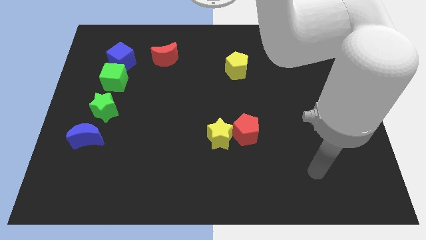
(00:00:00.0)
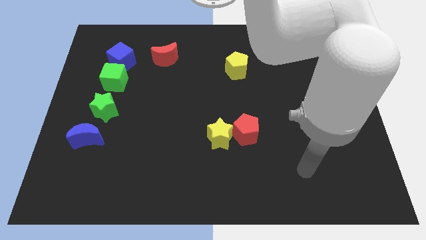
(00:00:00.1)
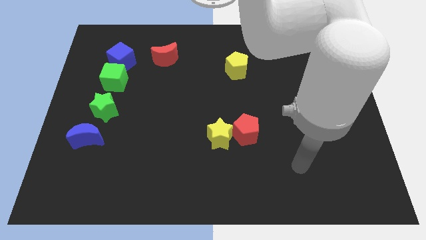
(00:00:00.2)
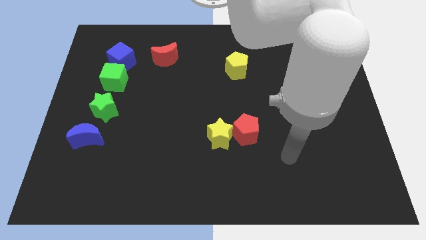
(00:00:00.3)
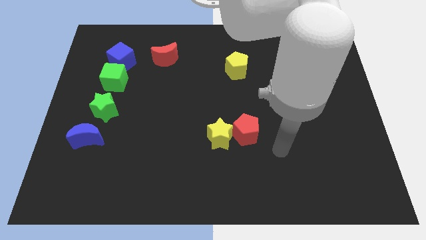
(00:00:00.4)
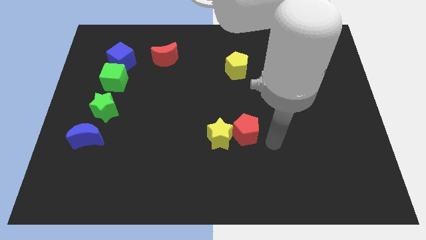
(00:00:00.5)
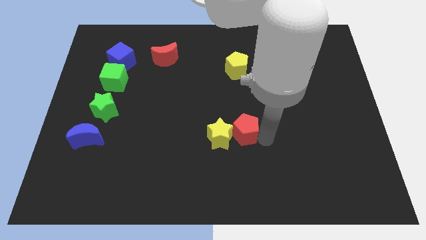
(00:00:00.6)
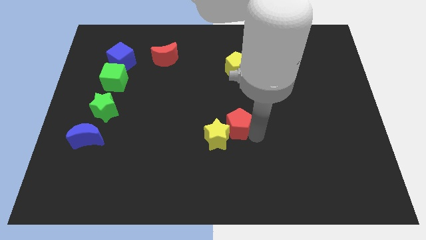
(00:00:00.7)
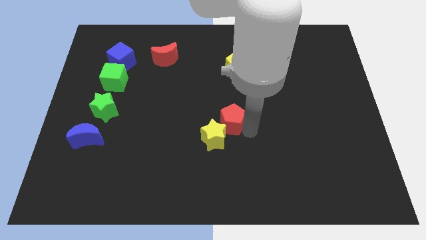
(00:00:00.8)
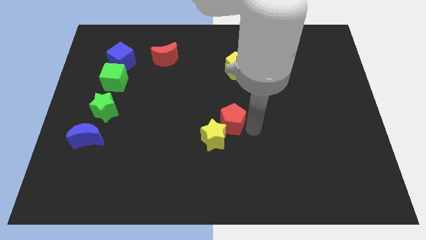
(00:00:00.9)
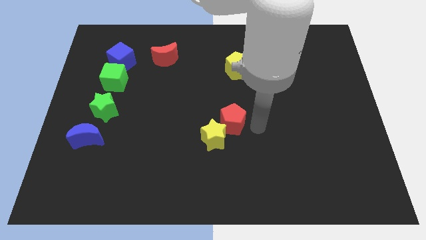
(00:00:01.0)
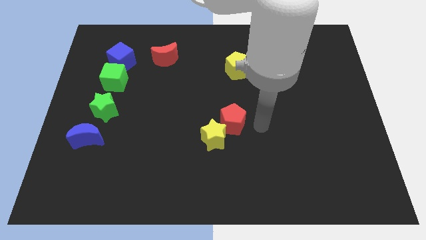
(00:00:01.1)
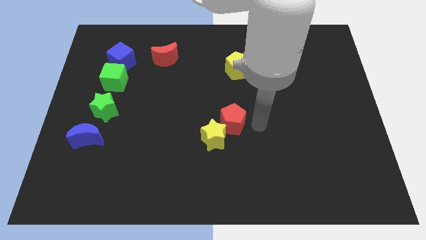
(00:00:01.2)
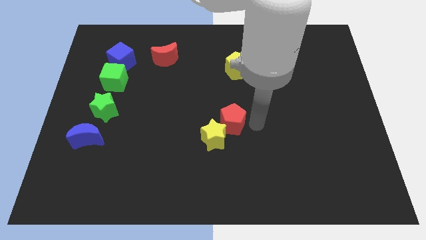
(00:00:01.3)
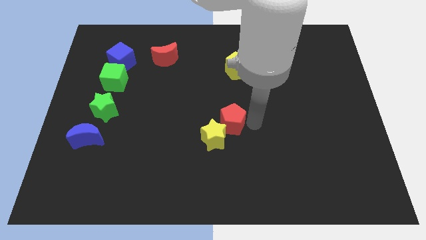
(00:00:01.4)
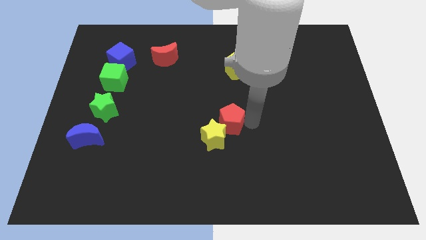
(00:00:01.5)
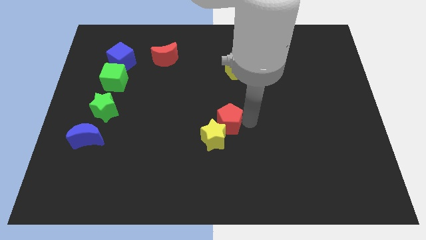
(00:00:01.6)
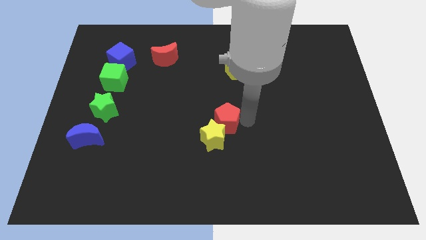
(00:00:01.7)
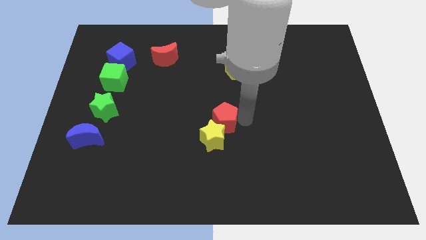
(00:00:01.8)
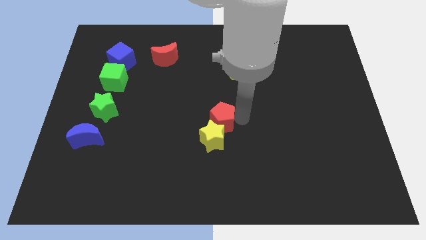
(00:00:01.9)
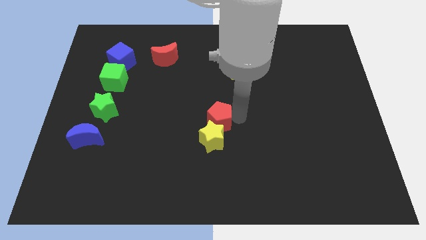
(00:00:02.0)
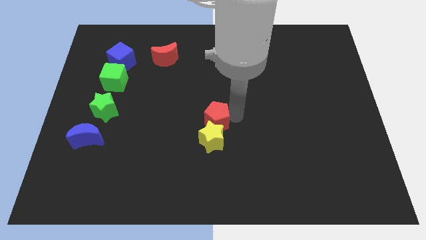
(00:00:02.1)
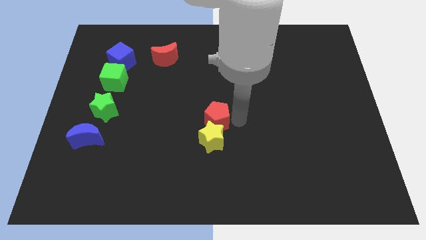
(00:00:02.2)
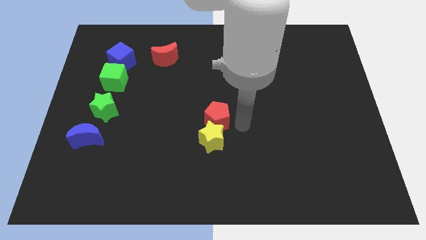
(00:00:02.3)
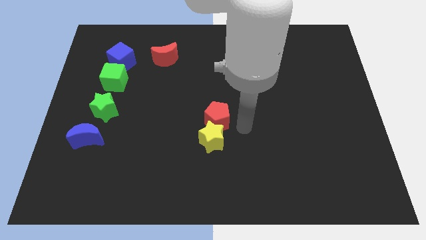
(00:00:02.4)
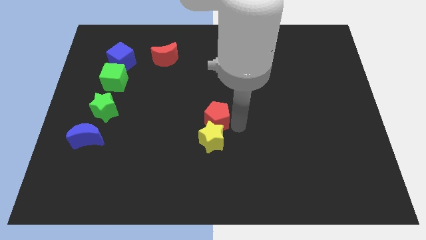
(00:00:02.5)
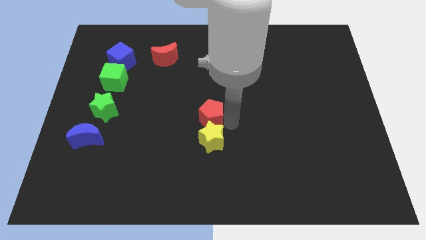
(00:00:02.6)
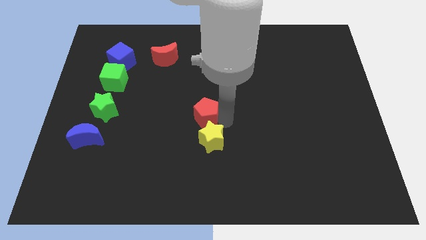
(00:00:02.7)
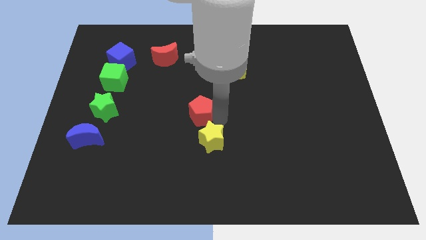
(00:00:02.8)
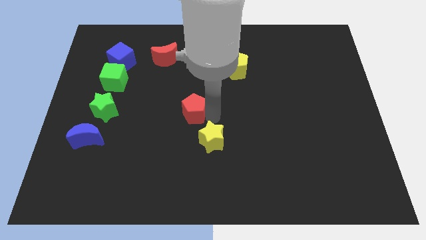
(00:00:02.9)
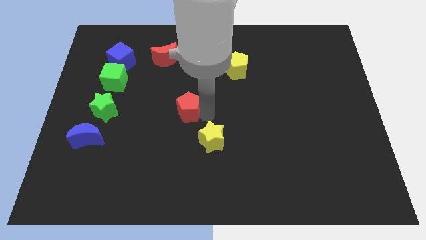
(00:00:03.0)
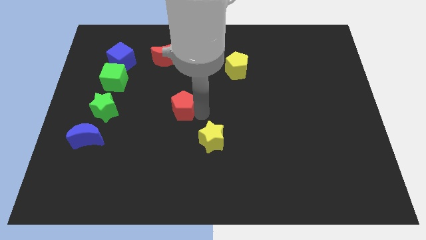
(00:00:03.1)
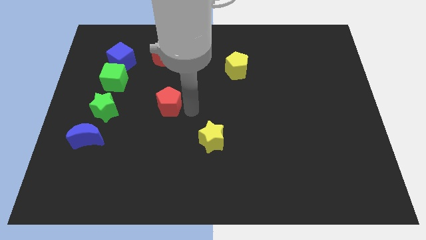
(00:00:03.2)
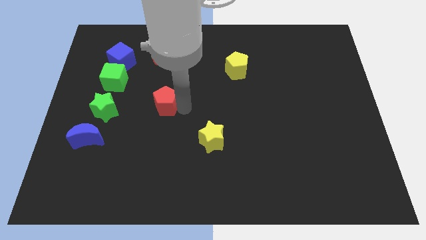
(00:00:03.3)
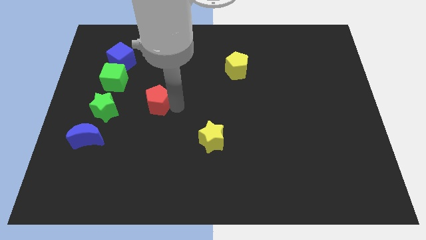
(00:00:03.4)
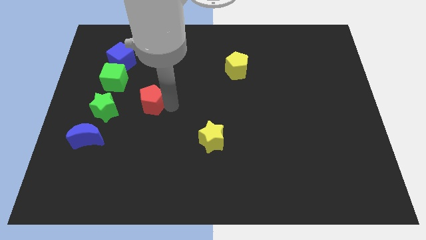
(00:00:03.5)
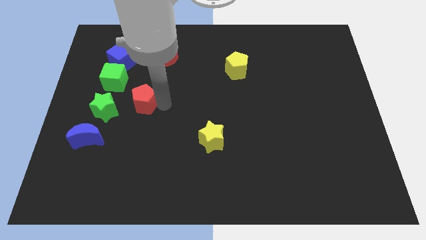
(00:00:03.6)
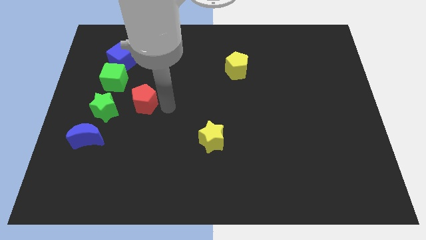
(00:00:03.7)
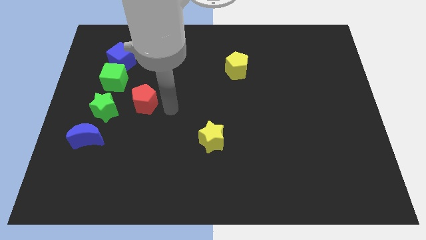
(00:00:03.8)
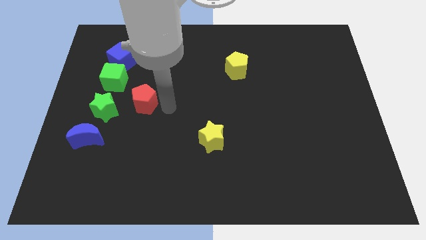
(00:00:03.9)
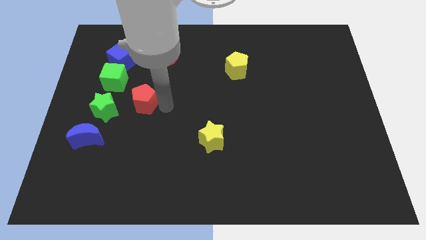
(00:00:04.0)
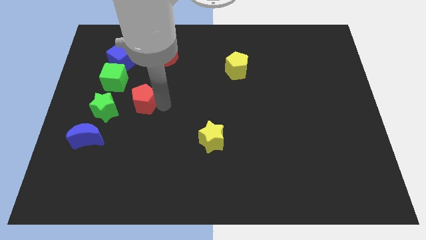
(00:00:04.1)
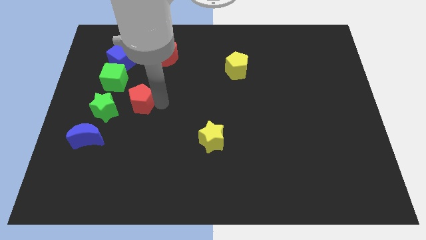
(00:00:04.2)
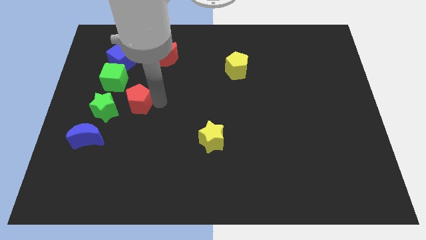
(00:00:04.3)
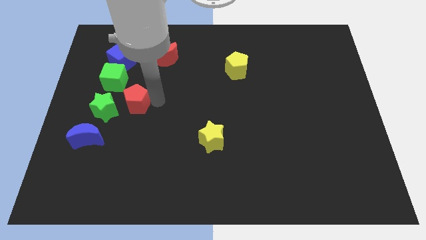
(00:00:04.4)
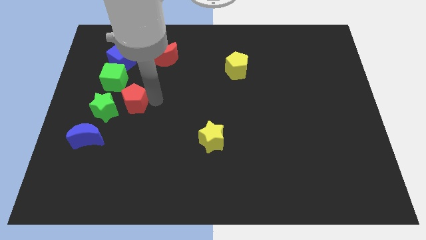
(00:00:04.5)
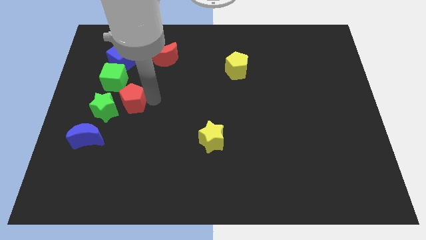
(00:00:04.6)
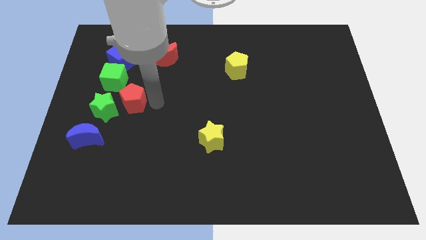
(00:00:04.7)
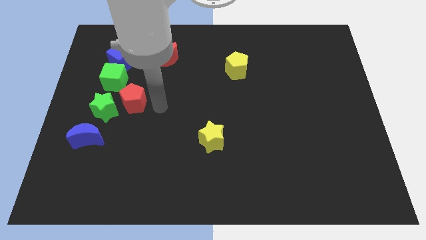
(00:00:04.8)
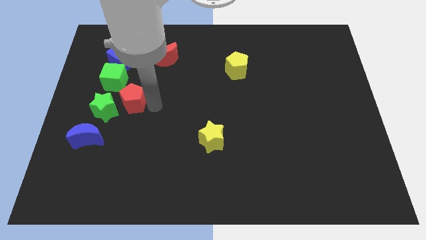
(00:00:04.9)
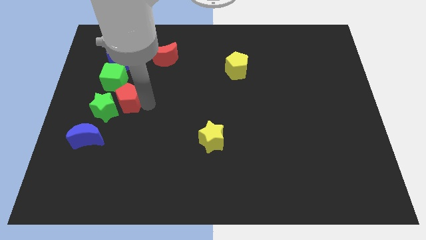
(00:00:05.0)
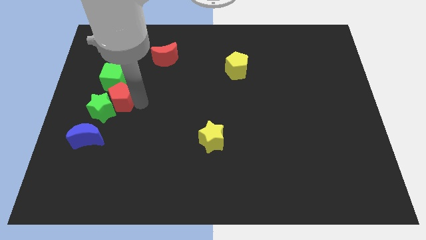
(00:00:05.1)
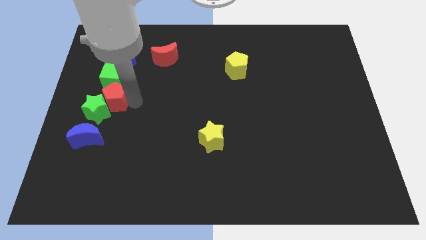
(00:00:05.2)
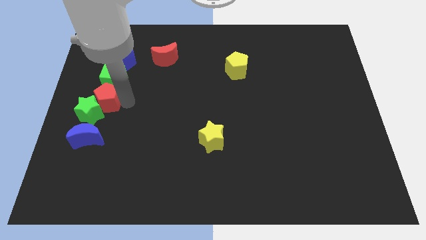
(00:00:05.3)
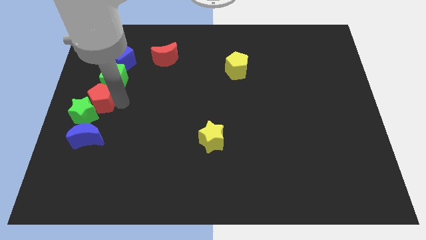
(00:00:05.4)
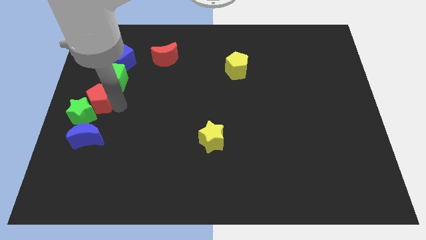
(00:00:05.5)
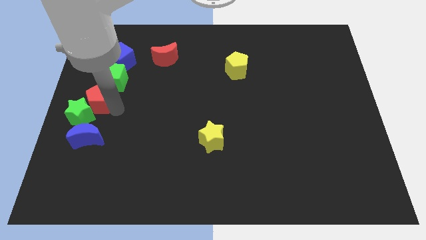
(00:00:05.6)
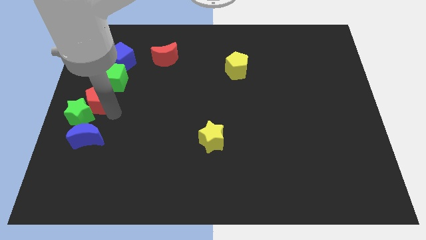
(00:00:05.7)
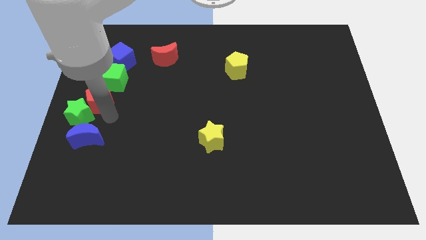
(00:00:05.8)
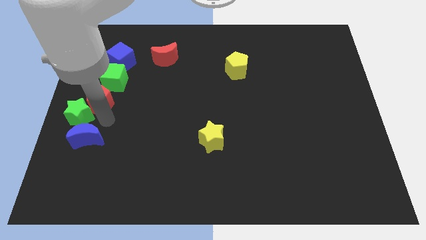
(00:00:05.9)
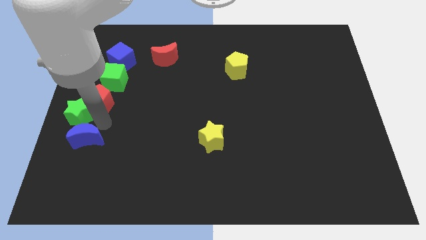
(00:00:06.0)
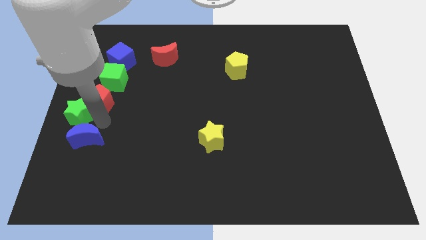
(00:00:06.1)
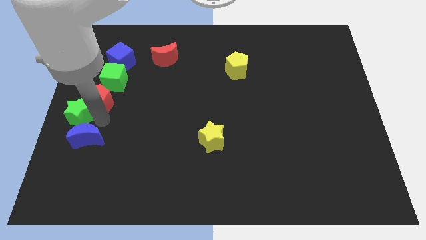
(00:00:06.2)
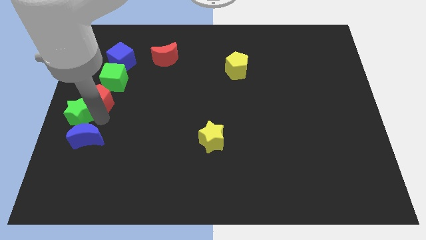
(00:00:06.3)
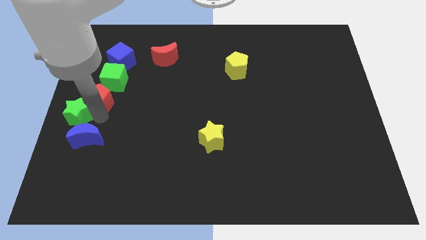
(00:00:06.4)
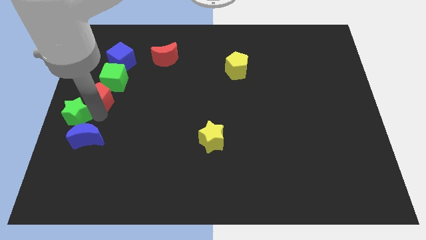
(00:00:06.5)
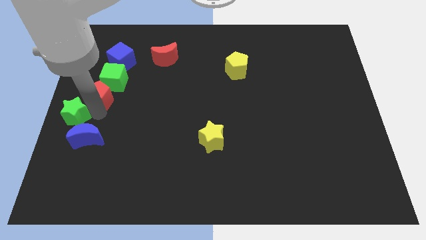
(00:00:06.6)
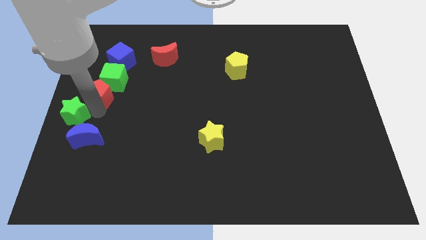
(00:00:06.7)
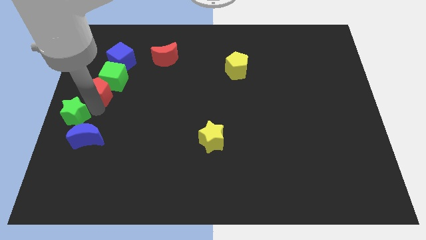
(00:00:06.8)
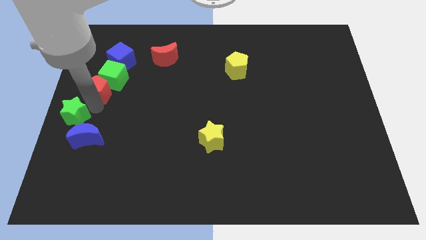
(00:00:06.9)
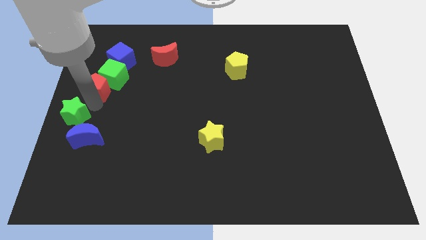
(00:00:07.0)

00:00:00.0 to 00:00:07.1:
slide the red pentagon to the bottom left side of the blue cube

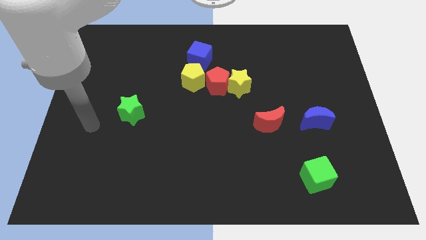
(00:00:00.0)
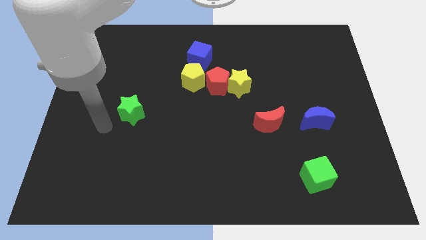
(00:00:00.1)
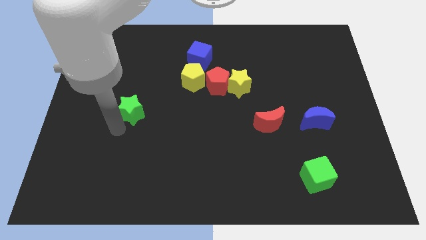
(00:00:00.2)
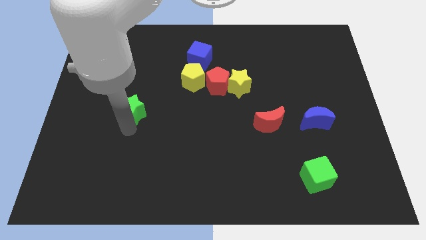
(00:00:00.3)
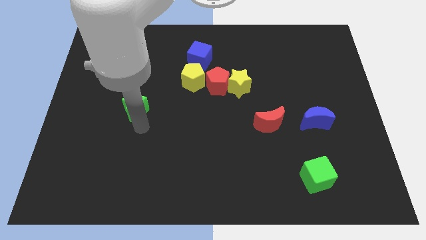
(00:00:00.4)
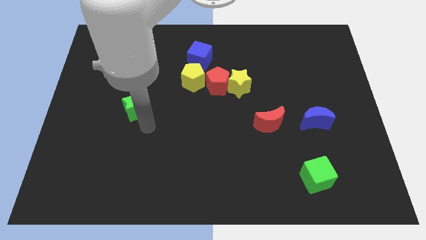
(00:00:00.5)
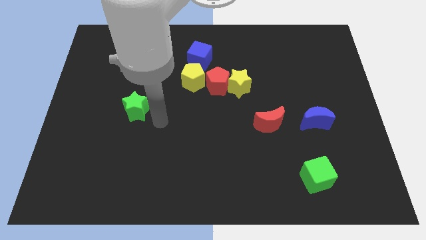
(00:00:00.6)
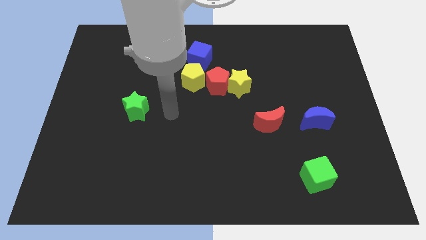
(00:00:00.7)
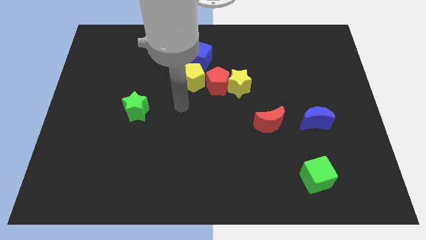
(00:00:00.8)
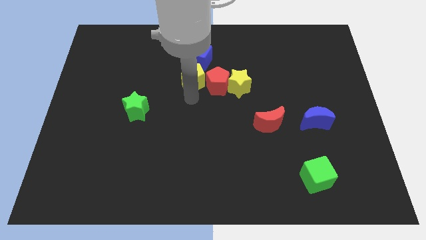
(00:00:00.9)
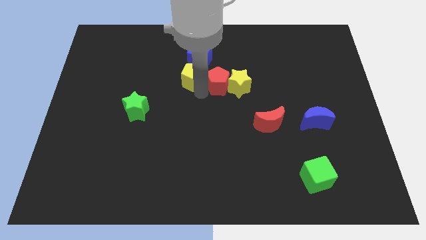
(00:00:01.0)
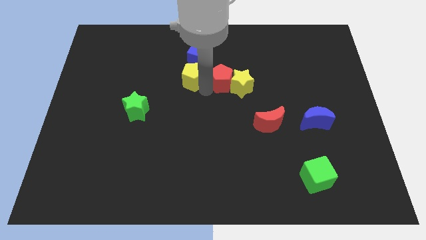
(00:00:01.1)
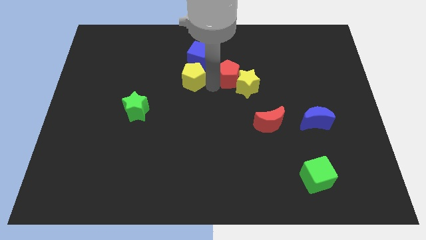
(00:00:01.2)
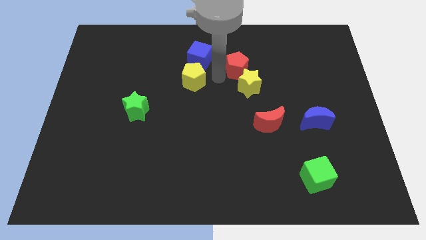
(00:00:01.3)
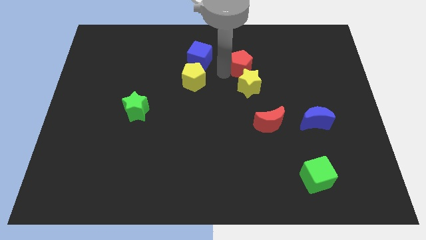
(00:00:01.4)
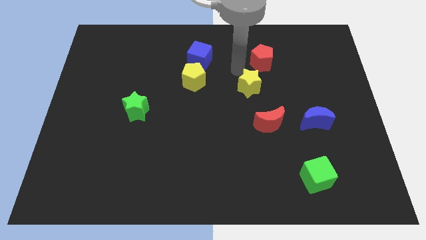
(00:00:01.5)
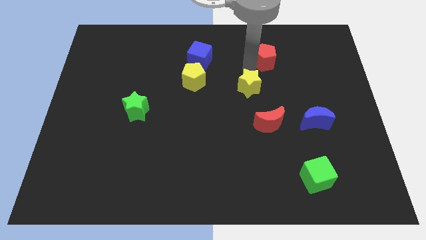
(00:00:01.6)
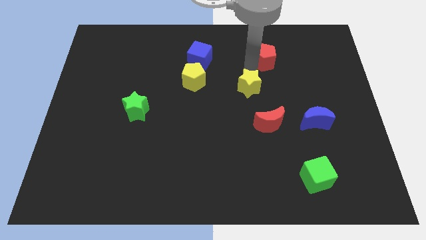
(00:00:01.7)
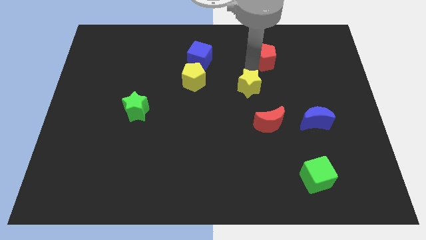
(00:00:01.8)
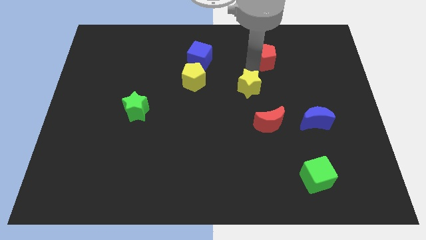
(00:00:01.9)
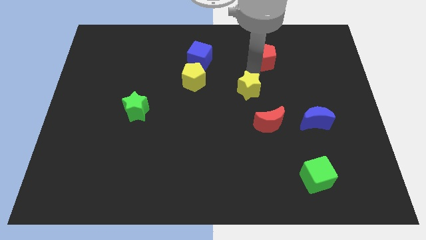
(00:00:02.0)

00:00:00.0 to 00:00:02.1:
move the yellow star to the top left side of the red moon
